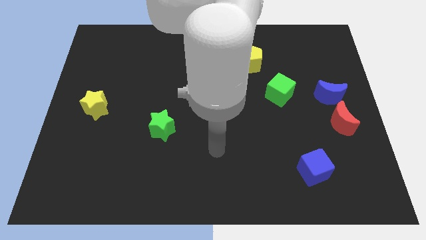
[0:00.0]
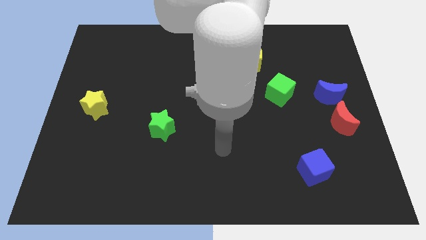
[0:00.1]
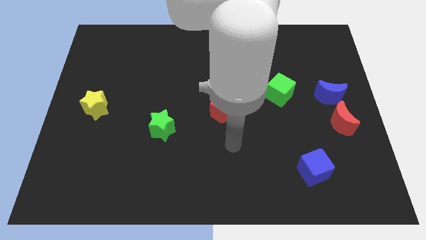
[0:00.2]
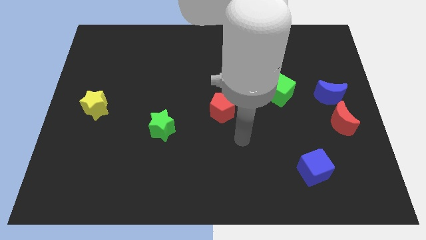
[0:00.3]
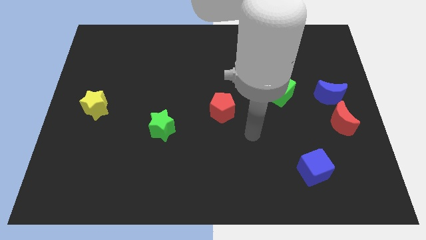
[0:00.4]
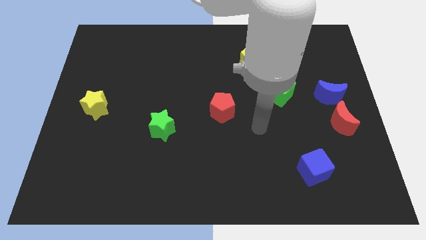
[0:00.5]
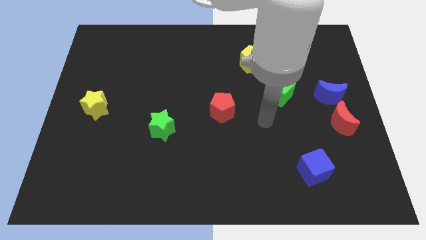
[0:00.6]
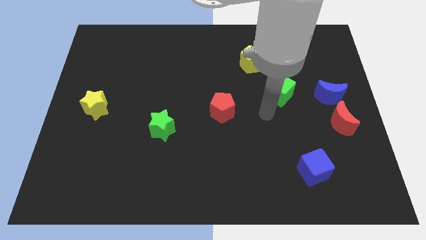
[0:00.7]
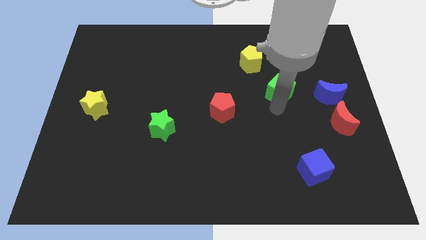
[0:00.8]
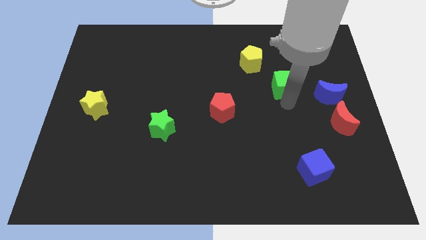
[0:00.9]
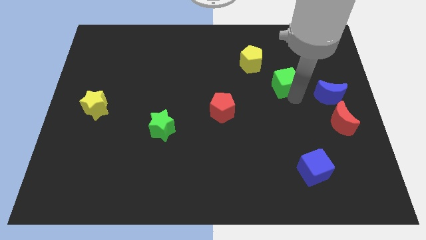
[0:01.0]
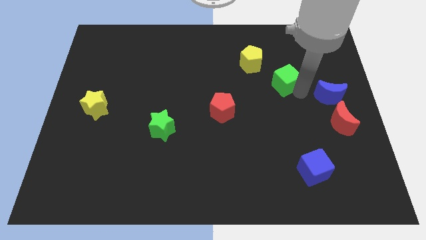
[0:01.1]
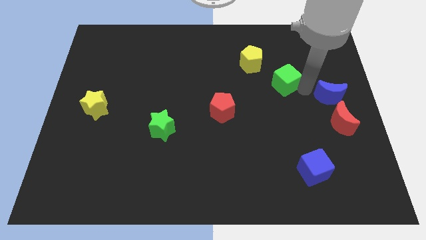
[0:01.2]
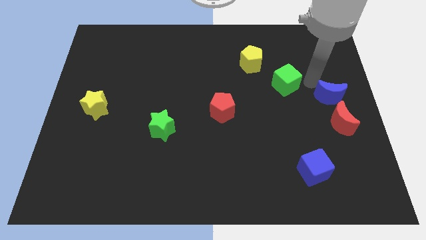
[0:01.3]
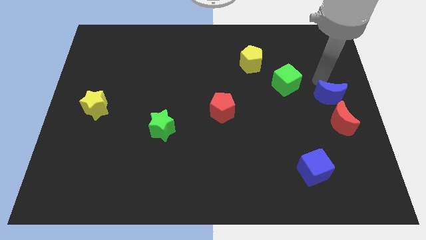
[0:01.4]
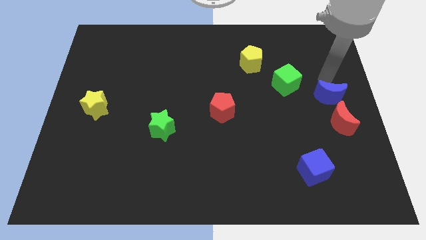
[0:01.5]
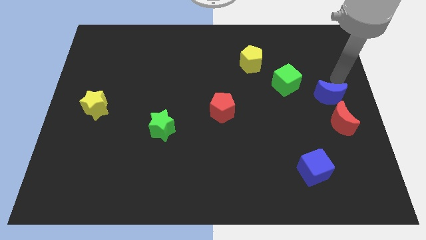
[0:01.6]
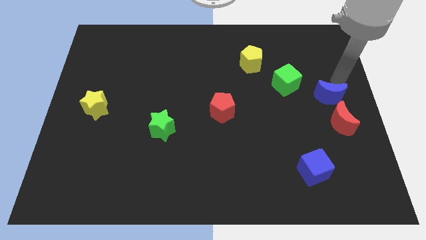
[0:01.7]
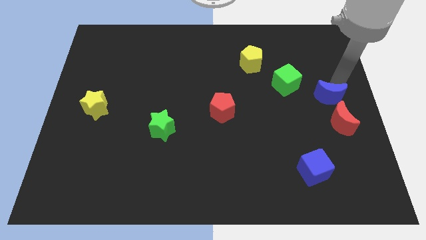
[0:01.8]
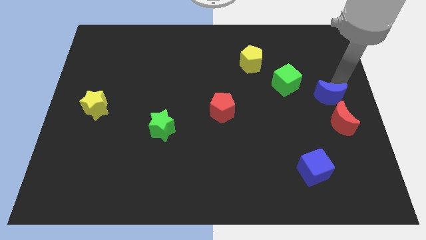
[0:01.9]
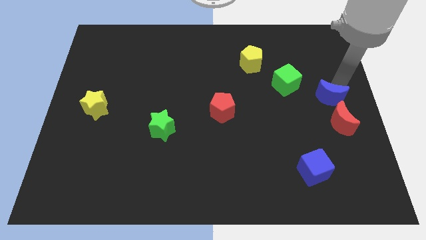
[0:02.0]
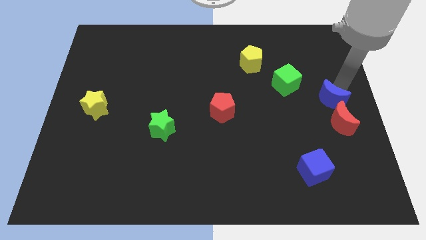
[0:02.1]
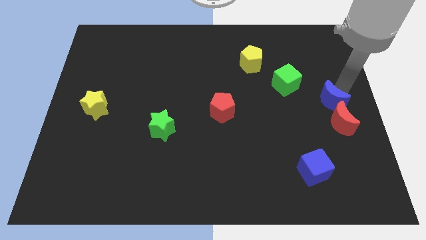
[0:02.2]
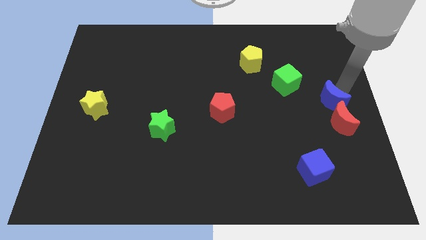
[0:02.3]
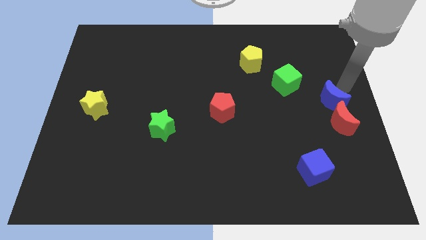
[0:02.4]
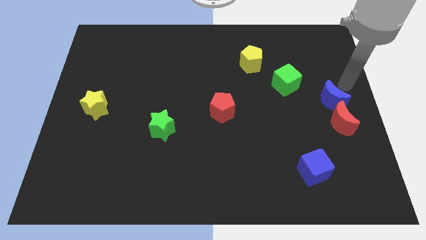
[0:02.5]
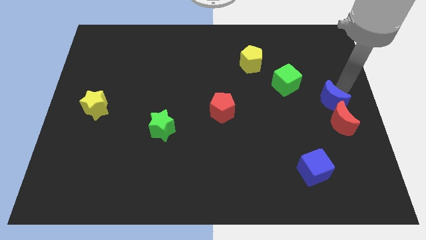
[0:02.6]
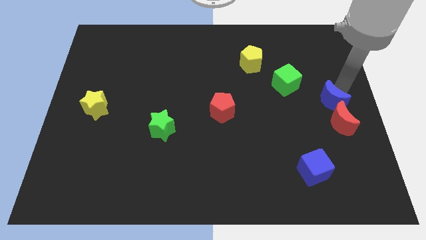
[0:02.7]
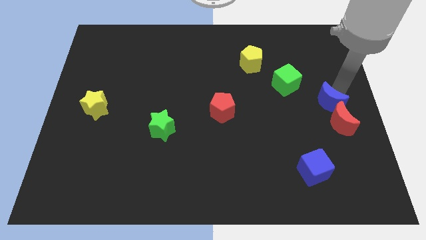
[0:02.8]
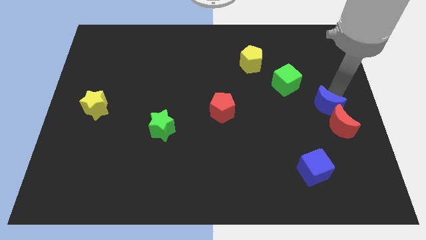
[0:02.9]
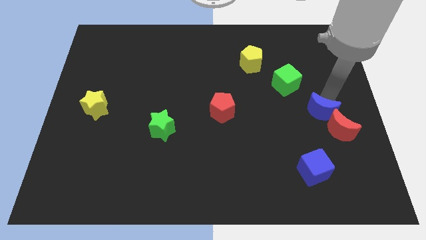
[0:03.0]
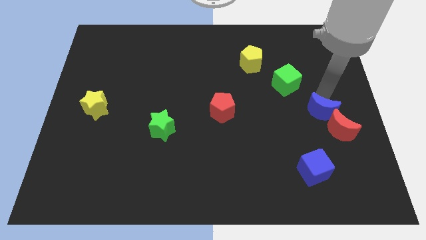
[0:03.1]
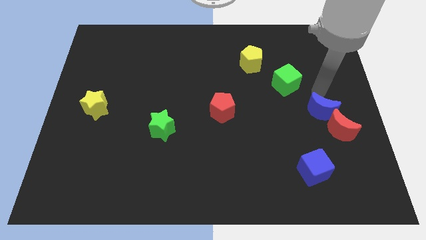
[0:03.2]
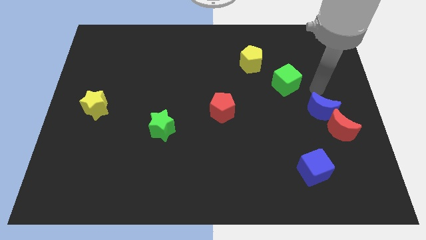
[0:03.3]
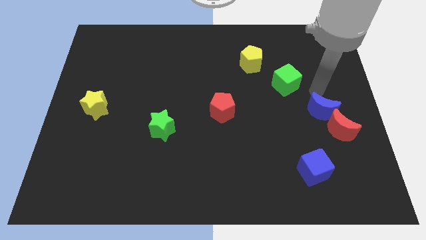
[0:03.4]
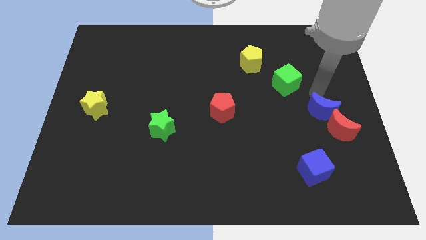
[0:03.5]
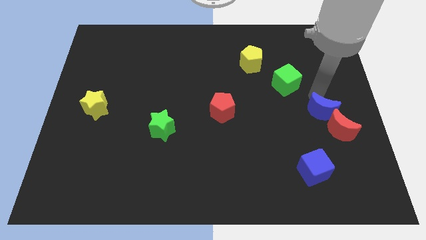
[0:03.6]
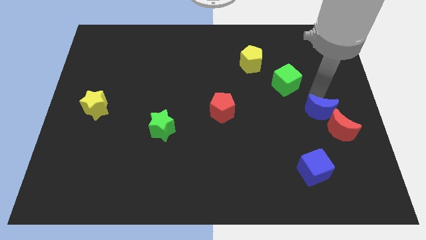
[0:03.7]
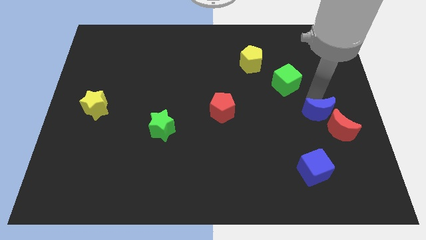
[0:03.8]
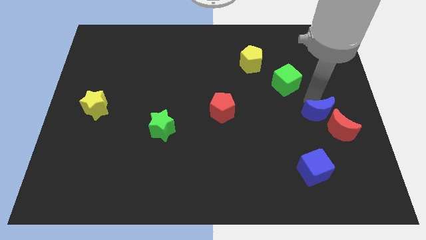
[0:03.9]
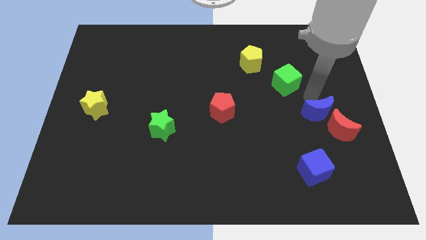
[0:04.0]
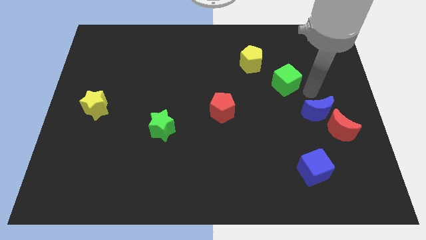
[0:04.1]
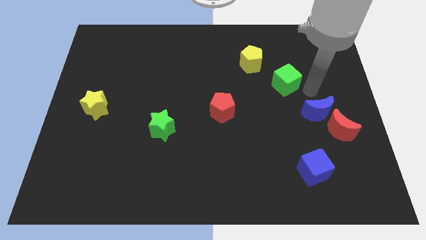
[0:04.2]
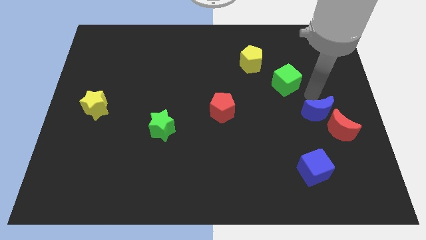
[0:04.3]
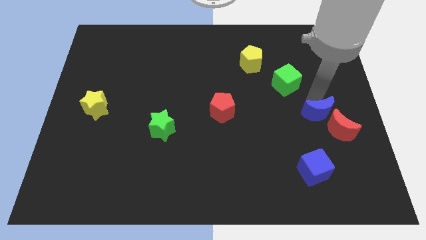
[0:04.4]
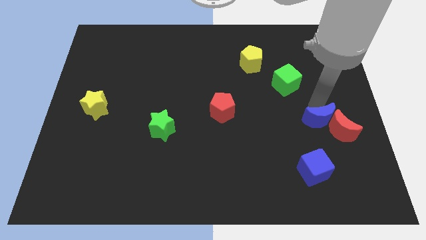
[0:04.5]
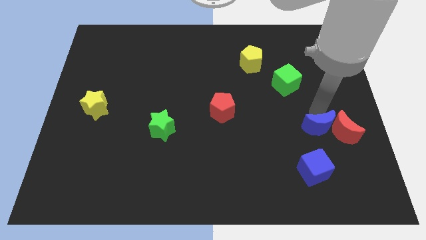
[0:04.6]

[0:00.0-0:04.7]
move the blue moon downwards slightly

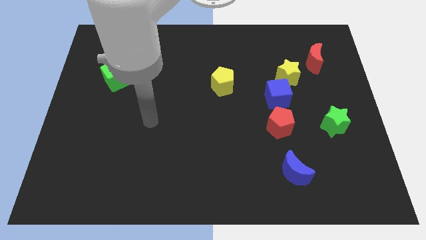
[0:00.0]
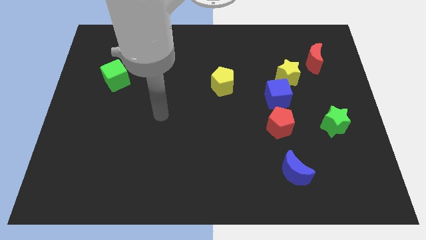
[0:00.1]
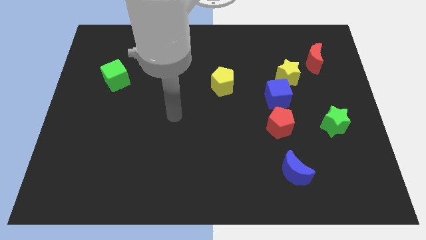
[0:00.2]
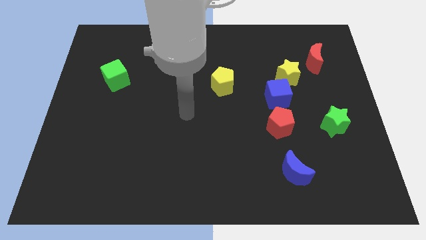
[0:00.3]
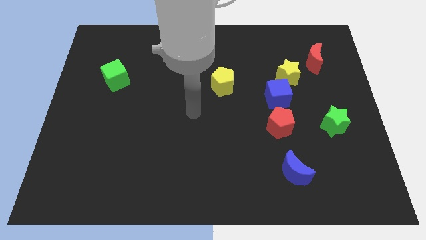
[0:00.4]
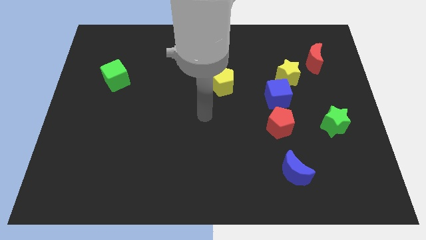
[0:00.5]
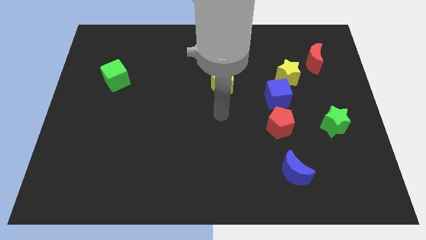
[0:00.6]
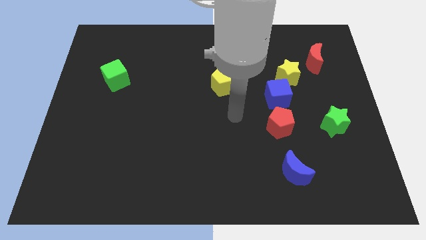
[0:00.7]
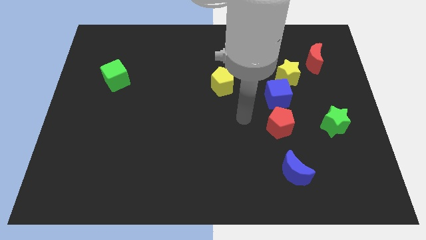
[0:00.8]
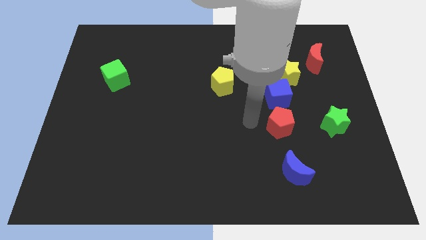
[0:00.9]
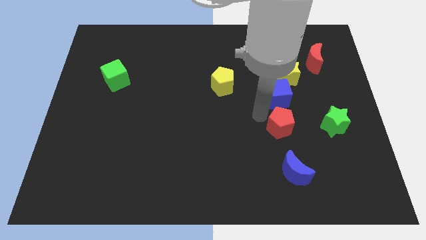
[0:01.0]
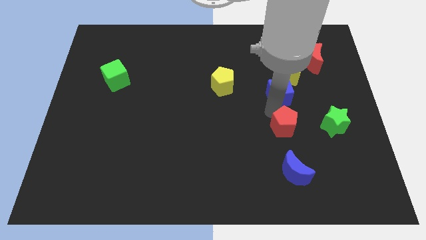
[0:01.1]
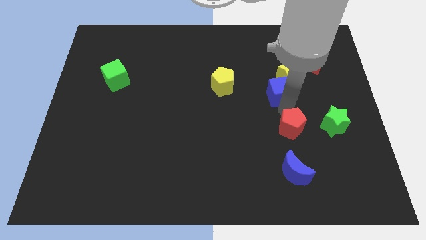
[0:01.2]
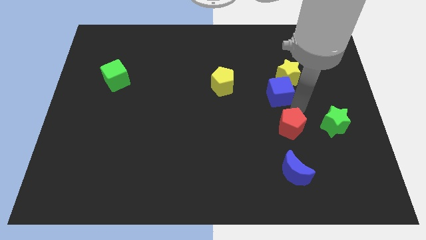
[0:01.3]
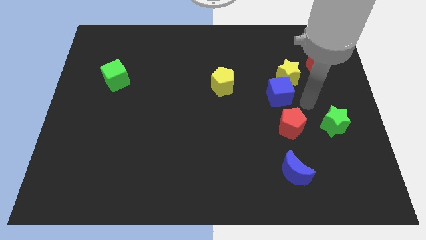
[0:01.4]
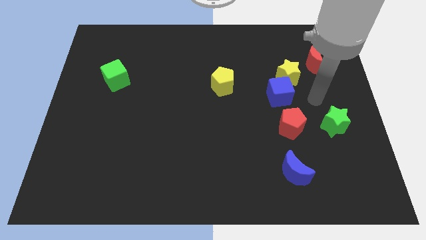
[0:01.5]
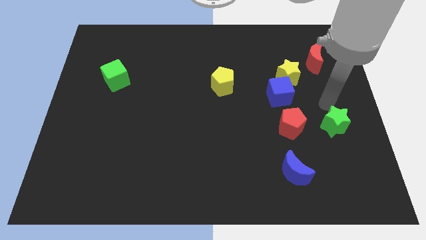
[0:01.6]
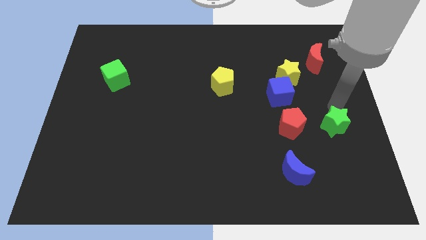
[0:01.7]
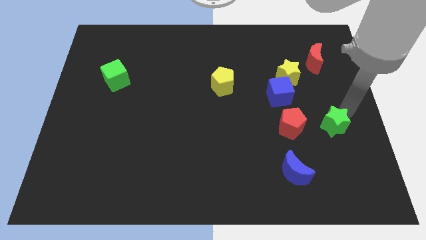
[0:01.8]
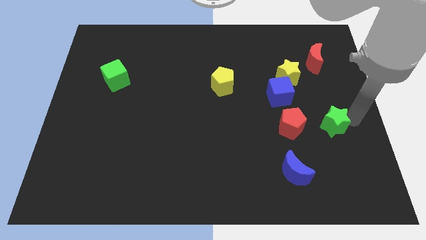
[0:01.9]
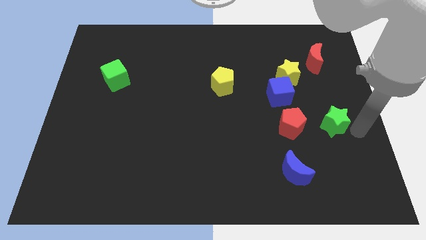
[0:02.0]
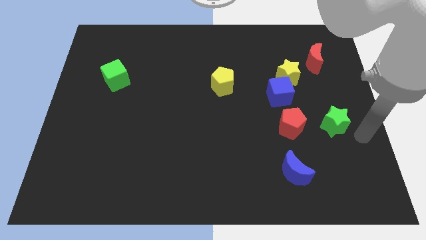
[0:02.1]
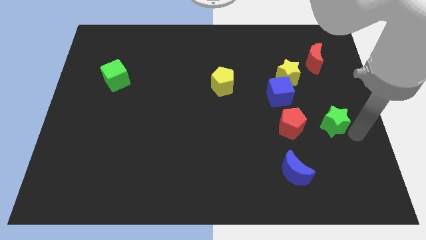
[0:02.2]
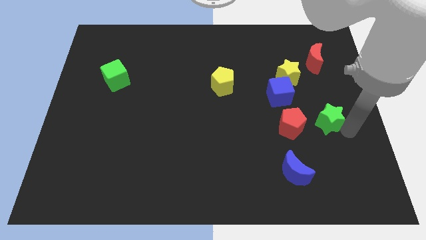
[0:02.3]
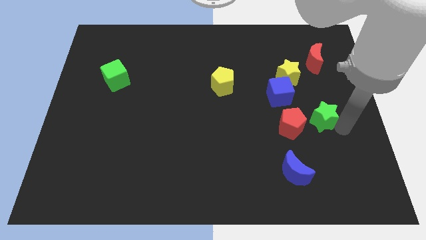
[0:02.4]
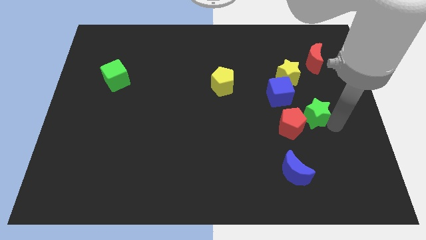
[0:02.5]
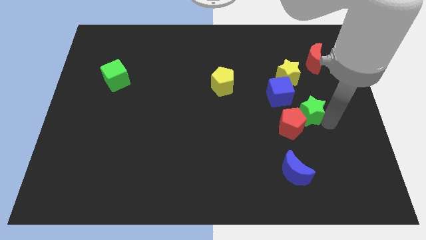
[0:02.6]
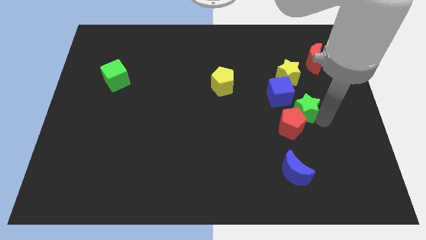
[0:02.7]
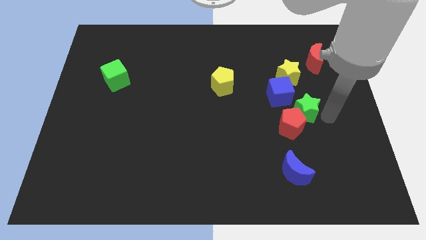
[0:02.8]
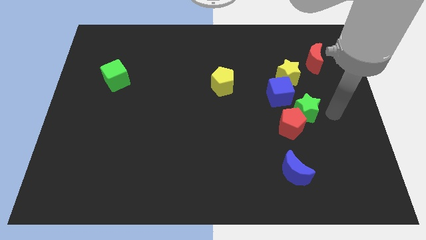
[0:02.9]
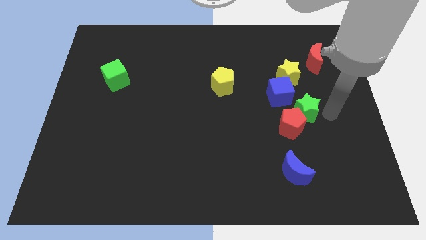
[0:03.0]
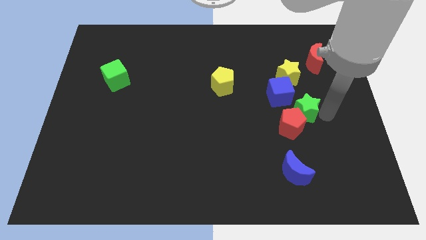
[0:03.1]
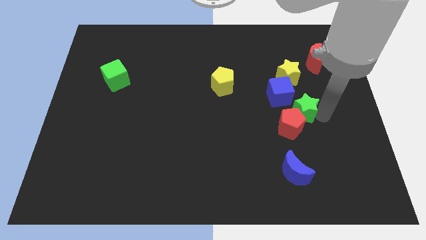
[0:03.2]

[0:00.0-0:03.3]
move the green star diagonally upwards and left somewhat
